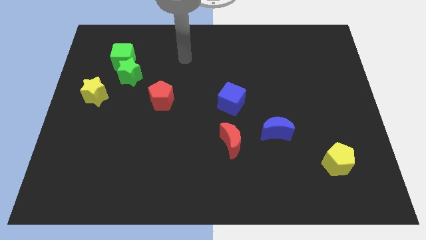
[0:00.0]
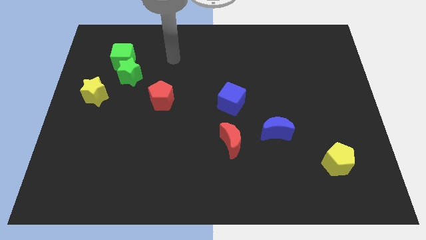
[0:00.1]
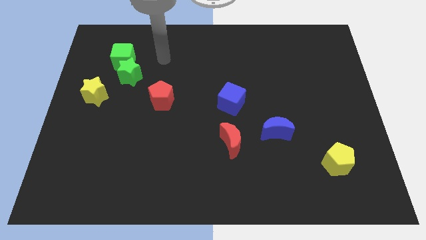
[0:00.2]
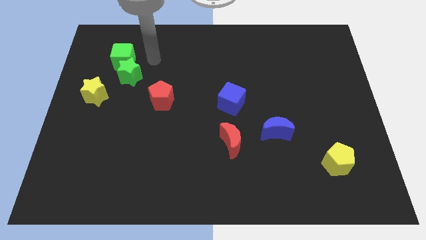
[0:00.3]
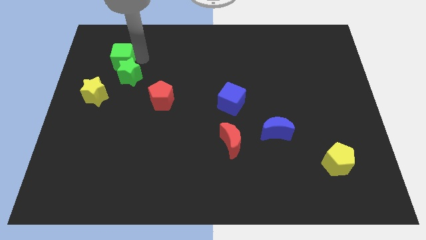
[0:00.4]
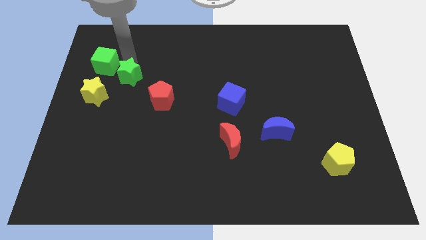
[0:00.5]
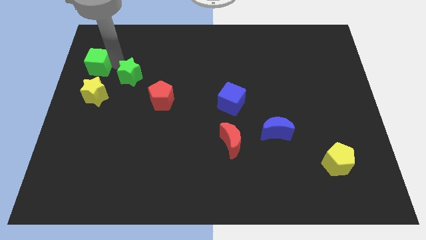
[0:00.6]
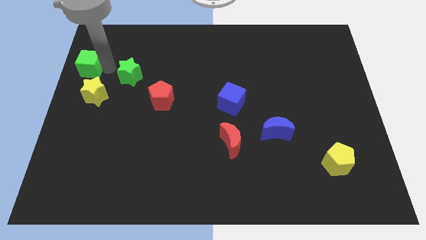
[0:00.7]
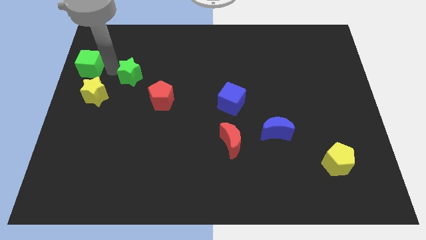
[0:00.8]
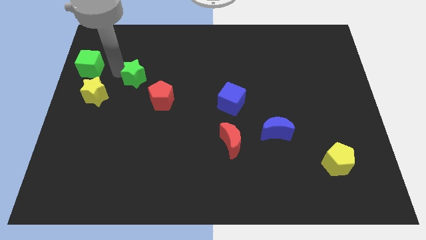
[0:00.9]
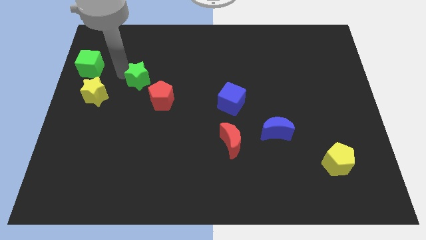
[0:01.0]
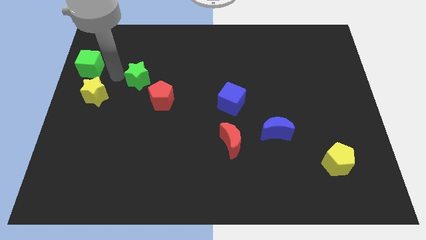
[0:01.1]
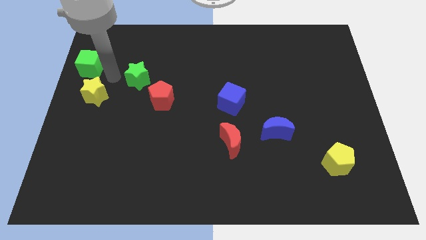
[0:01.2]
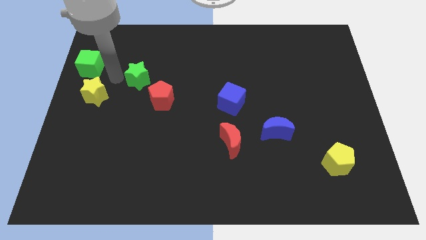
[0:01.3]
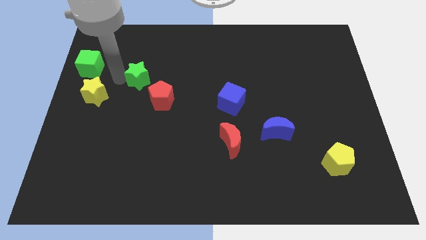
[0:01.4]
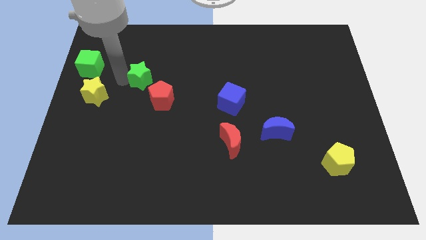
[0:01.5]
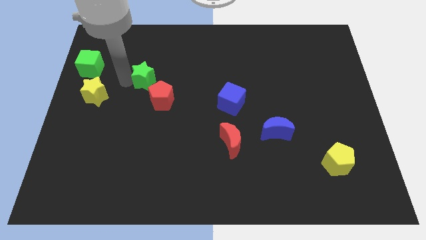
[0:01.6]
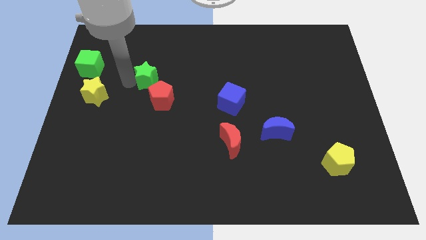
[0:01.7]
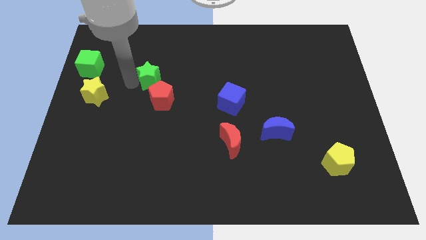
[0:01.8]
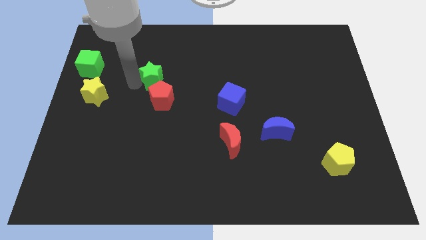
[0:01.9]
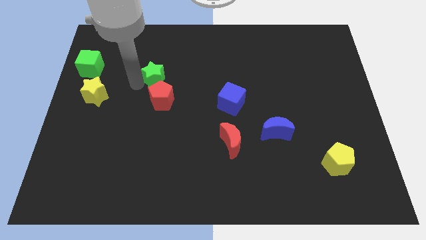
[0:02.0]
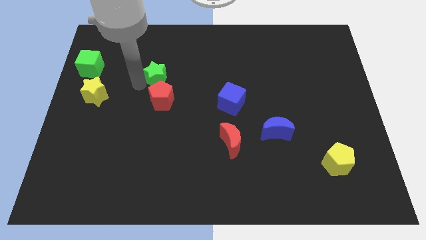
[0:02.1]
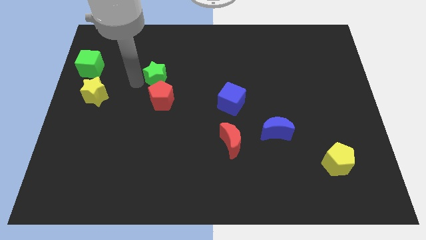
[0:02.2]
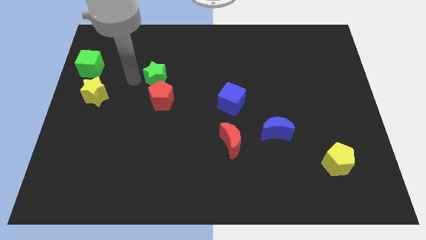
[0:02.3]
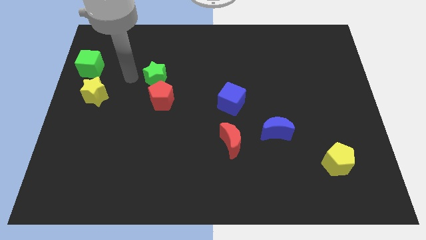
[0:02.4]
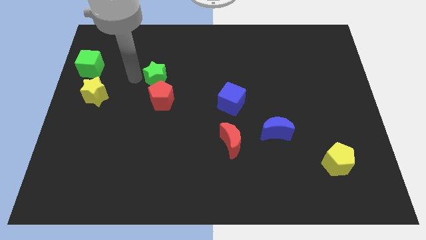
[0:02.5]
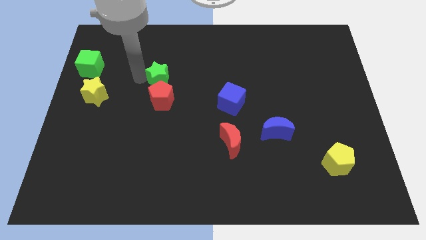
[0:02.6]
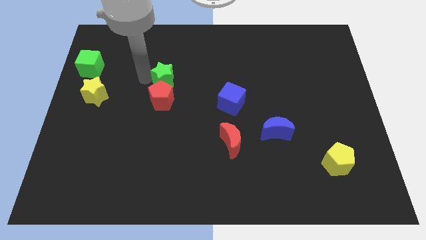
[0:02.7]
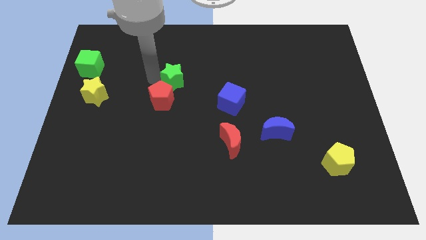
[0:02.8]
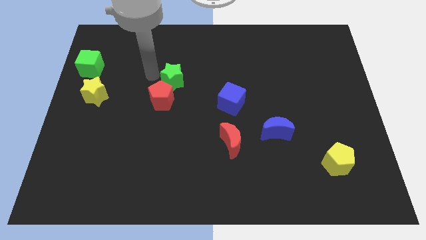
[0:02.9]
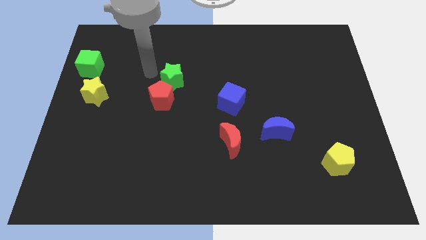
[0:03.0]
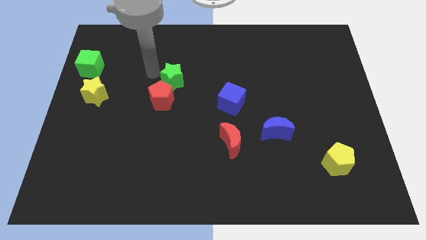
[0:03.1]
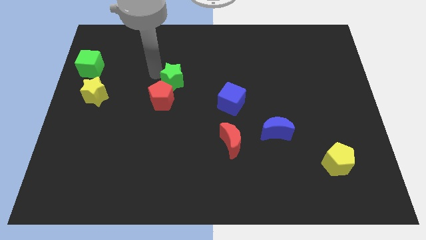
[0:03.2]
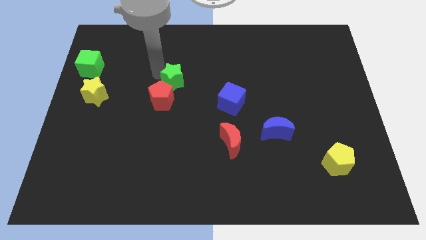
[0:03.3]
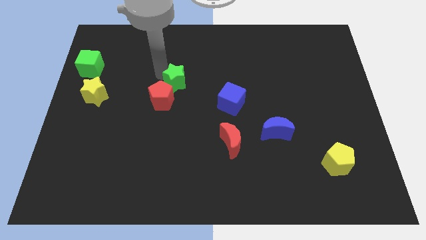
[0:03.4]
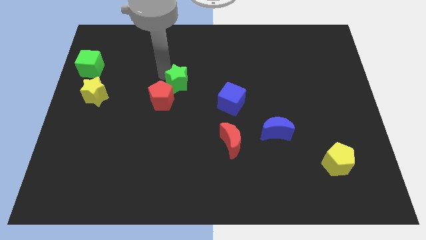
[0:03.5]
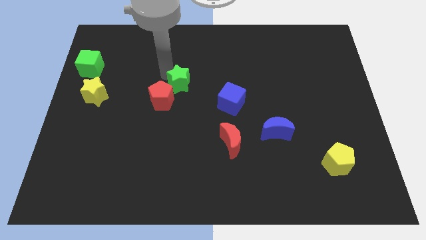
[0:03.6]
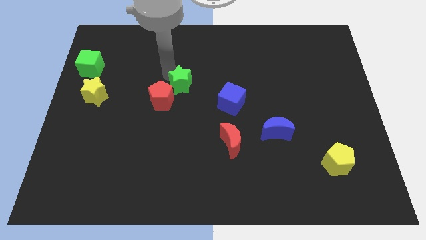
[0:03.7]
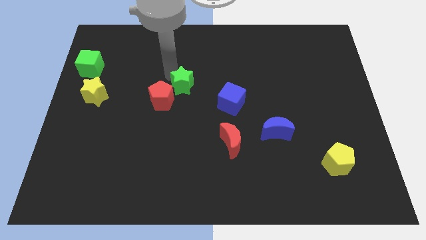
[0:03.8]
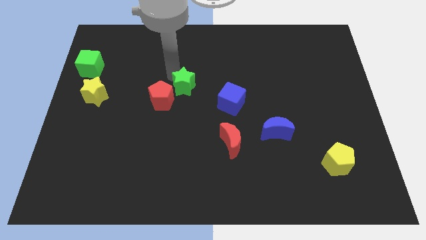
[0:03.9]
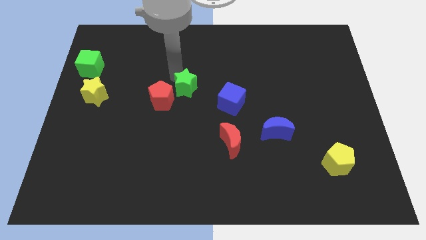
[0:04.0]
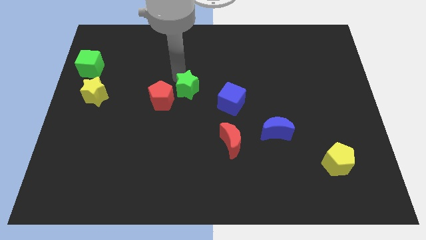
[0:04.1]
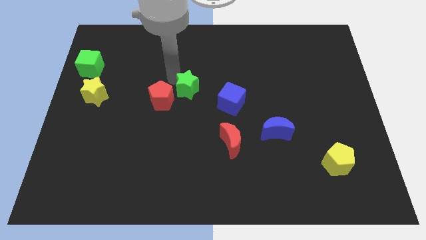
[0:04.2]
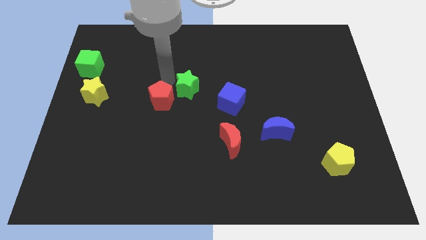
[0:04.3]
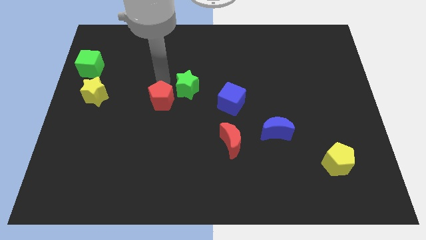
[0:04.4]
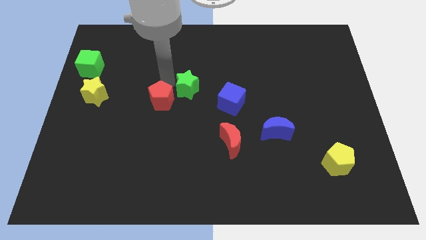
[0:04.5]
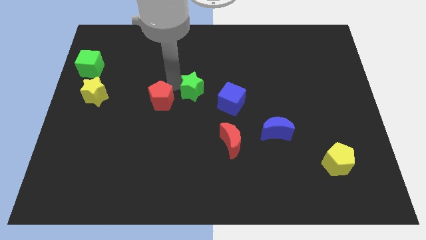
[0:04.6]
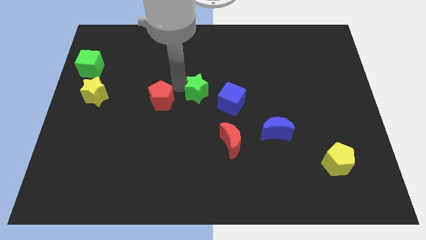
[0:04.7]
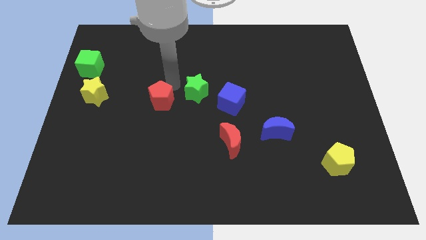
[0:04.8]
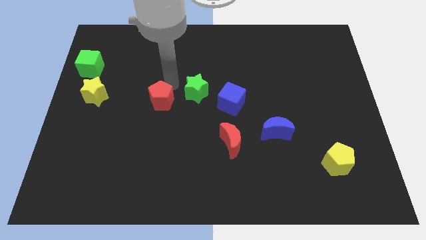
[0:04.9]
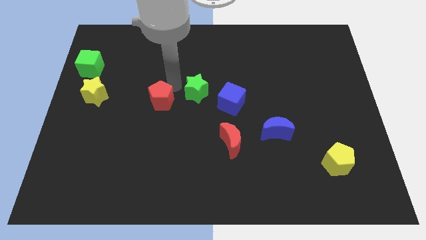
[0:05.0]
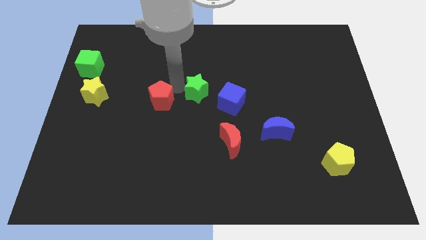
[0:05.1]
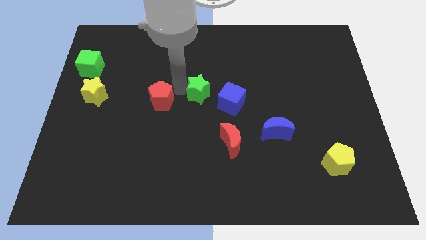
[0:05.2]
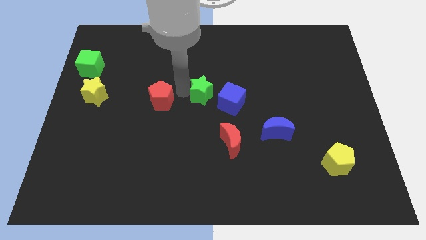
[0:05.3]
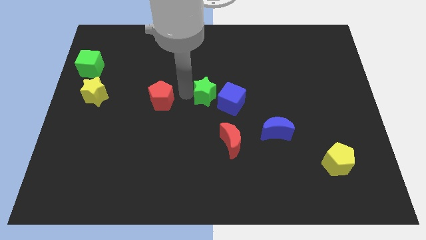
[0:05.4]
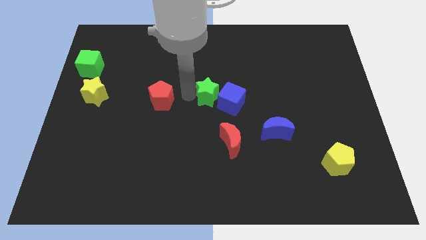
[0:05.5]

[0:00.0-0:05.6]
push the green star to the blue cube

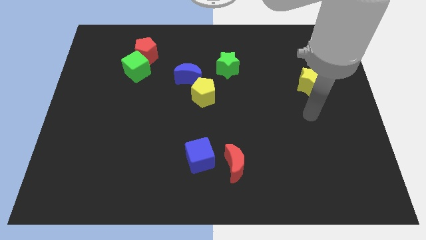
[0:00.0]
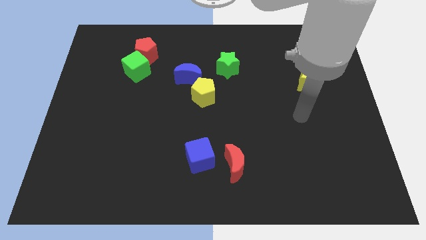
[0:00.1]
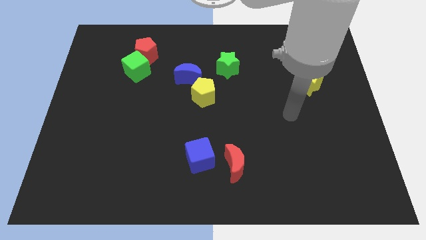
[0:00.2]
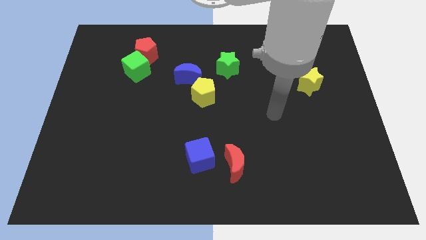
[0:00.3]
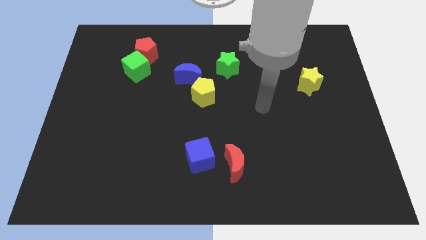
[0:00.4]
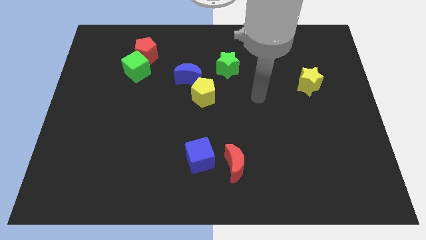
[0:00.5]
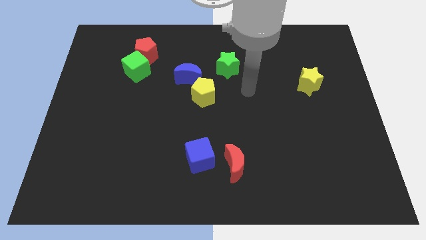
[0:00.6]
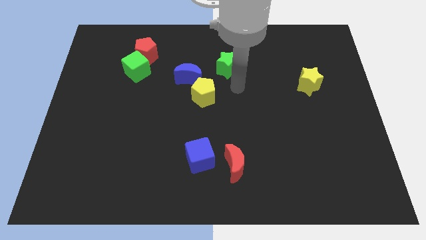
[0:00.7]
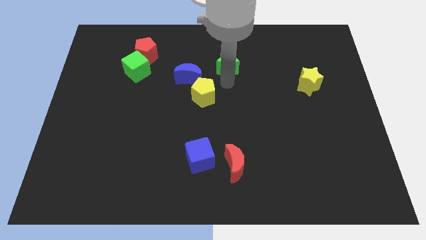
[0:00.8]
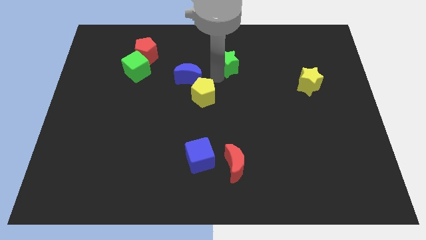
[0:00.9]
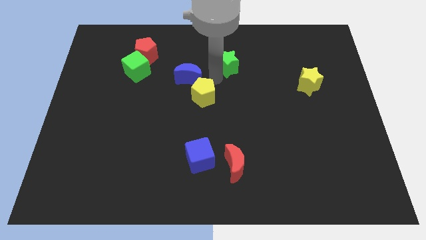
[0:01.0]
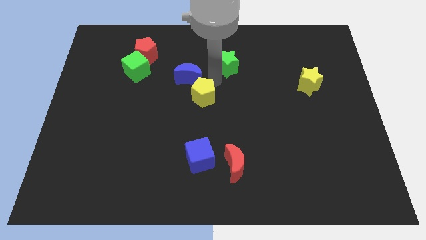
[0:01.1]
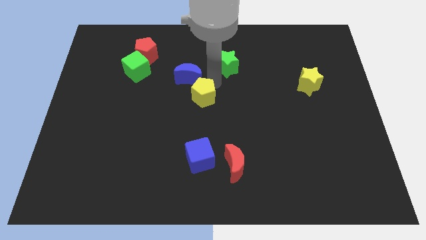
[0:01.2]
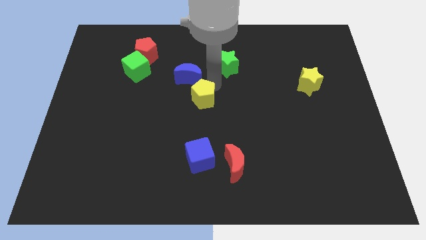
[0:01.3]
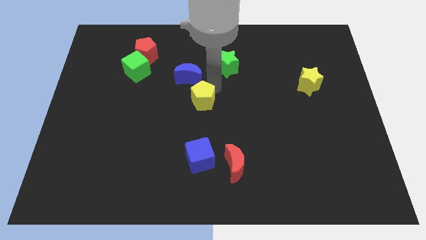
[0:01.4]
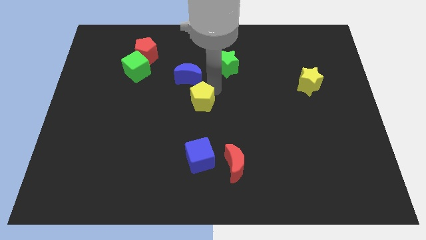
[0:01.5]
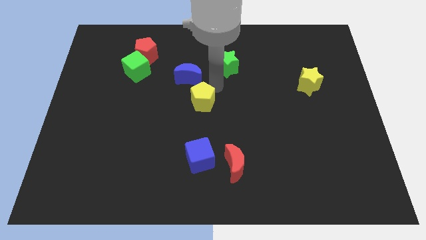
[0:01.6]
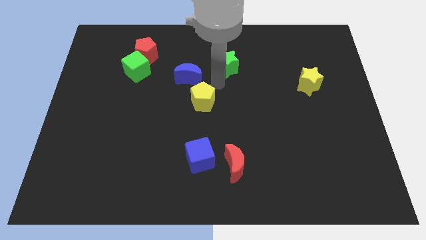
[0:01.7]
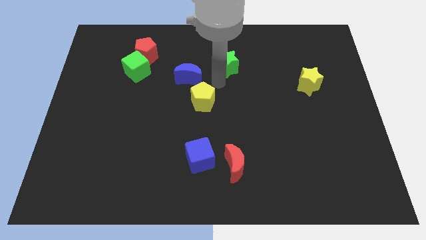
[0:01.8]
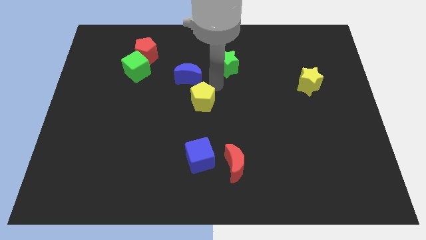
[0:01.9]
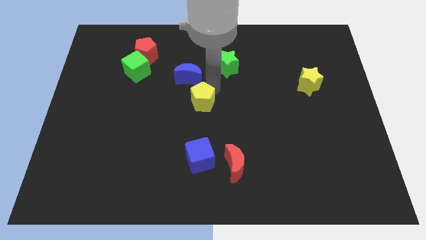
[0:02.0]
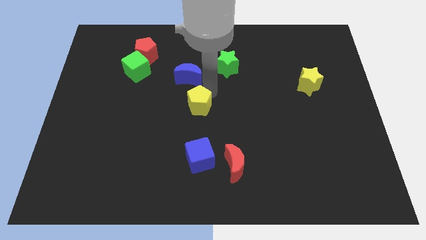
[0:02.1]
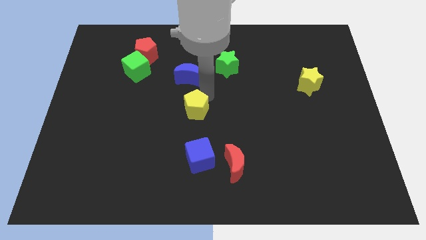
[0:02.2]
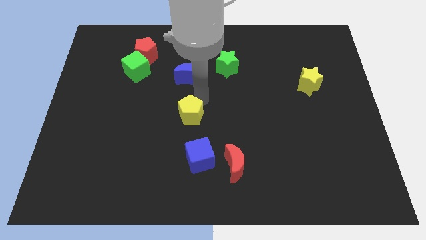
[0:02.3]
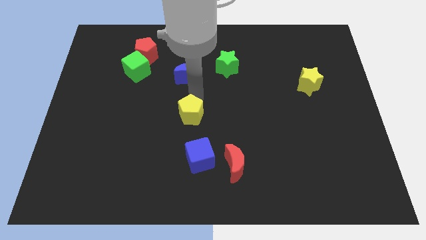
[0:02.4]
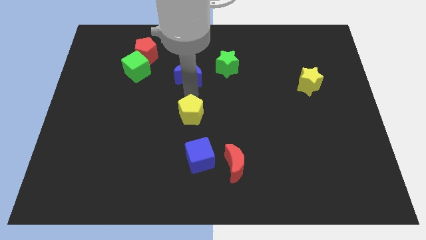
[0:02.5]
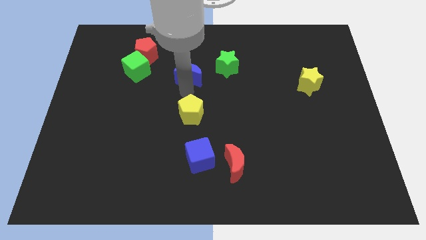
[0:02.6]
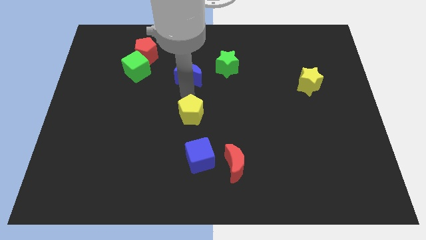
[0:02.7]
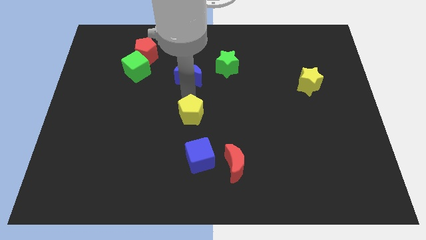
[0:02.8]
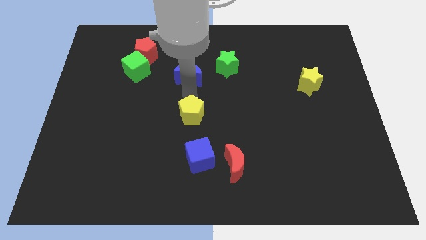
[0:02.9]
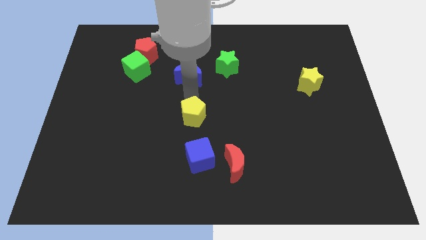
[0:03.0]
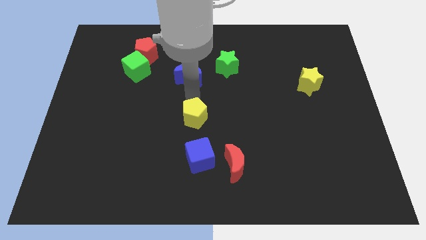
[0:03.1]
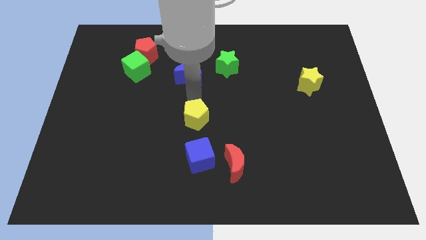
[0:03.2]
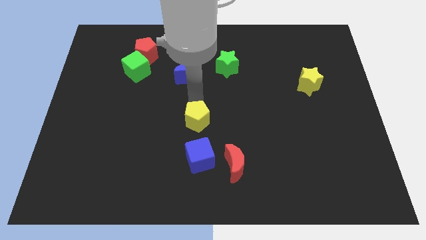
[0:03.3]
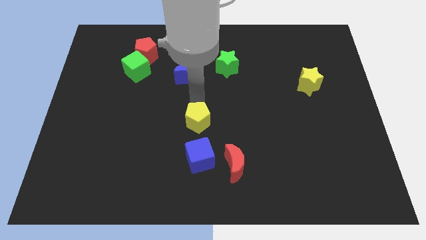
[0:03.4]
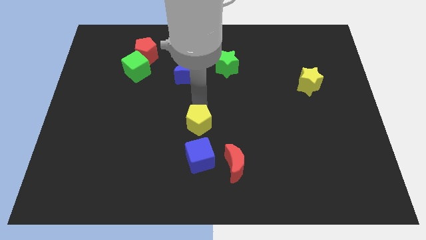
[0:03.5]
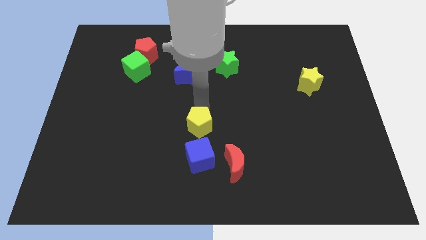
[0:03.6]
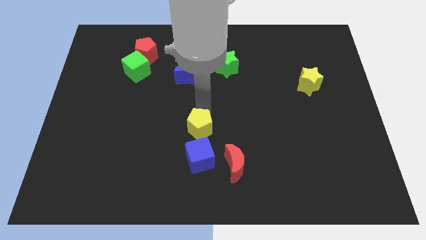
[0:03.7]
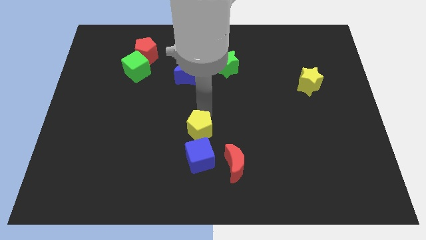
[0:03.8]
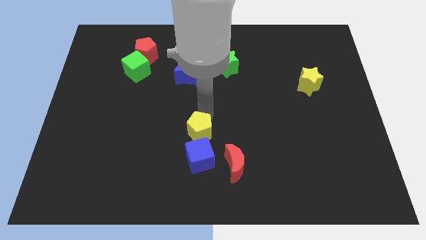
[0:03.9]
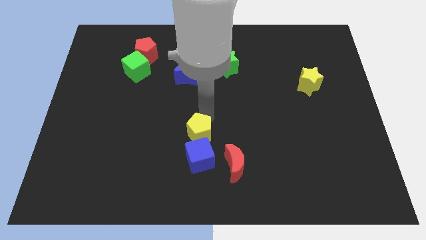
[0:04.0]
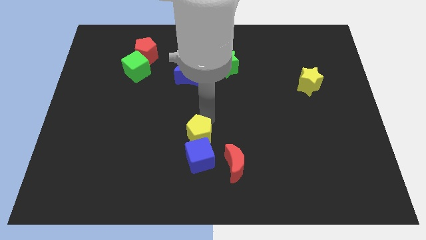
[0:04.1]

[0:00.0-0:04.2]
slide the yellow pentagon close to the blue cube
